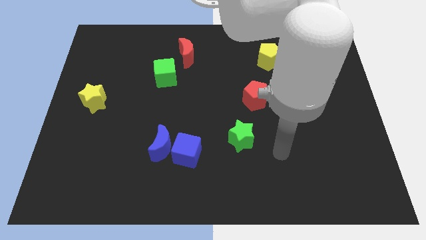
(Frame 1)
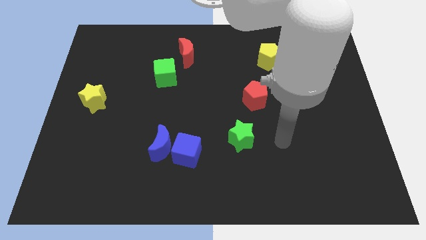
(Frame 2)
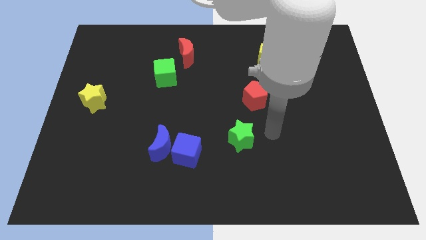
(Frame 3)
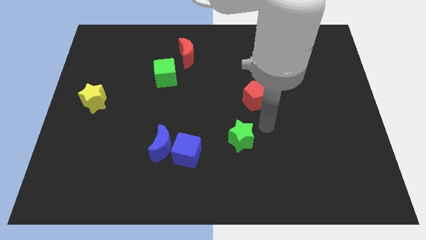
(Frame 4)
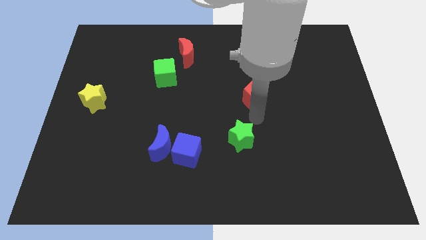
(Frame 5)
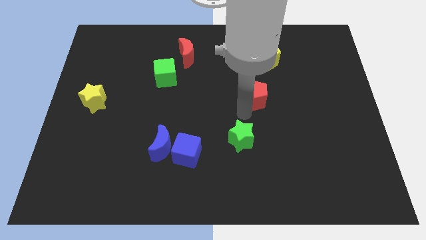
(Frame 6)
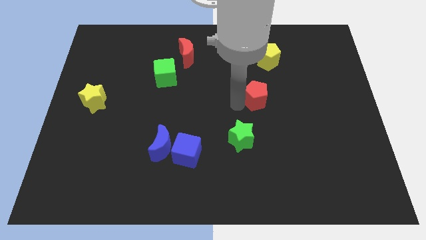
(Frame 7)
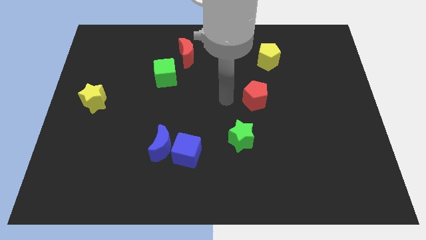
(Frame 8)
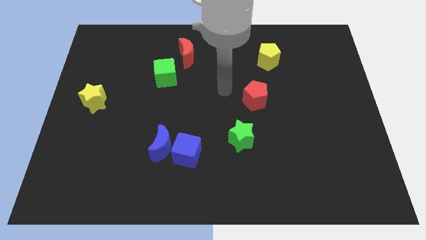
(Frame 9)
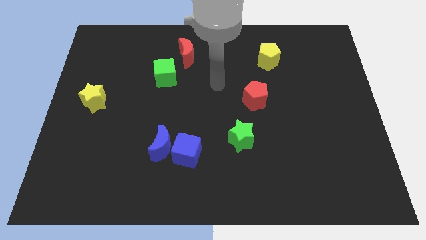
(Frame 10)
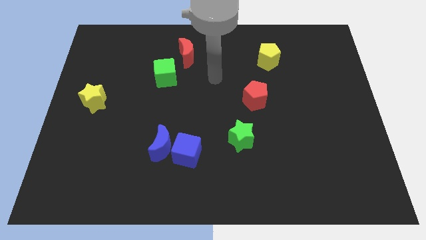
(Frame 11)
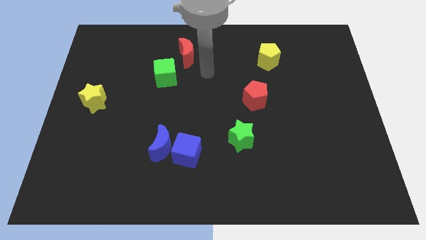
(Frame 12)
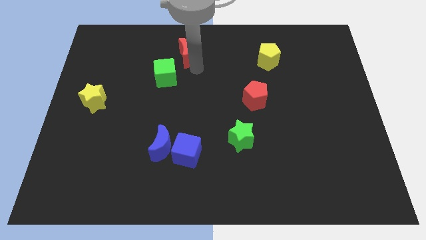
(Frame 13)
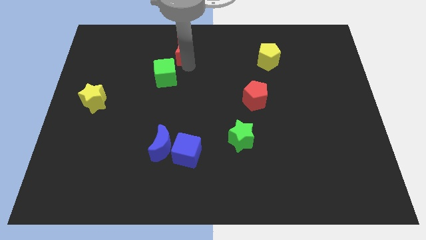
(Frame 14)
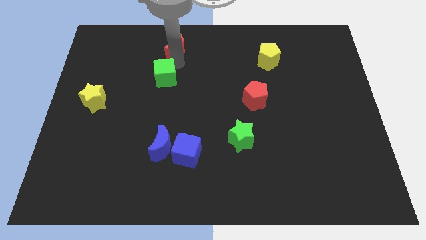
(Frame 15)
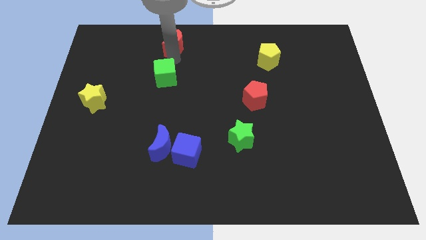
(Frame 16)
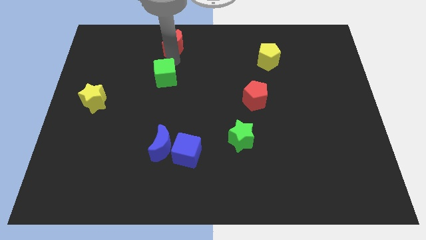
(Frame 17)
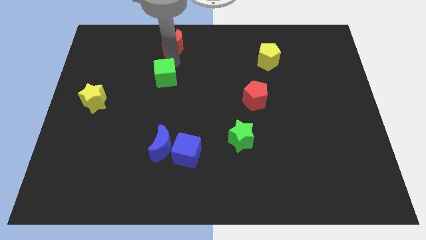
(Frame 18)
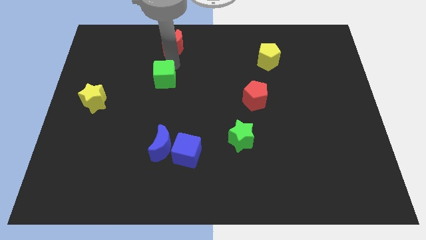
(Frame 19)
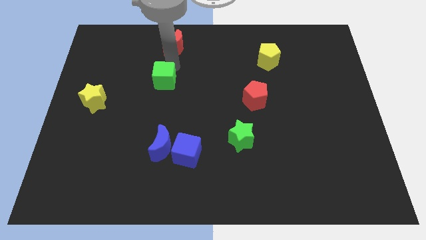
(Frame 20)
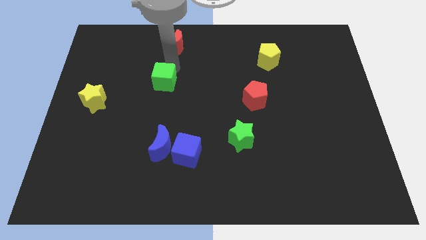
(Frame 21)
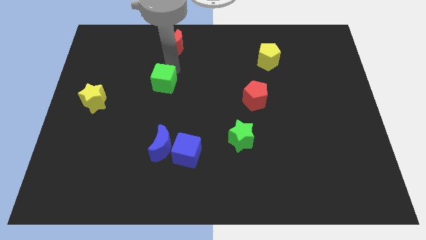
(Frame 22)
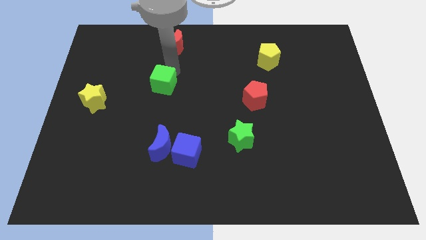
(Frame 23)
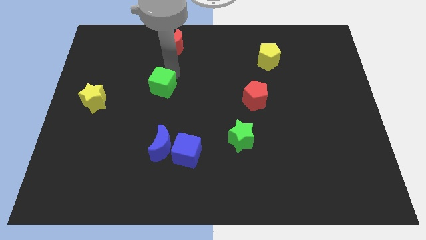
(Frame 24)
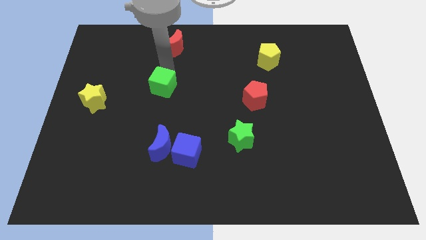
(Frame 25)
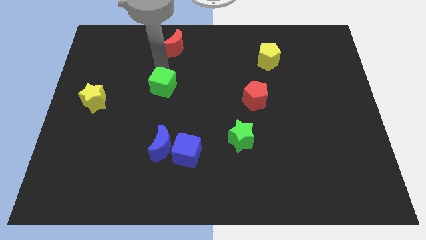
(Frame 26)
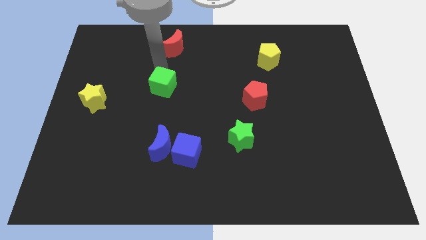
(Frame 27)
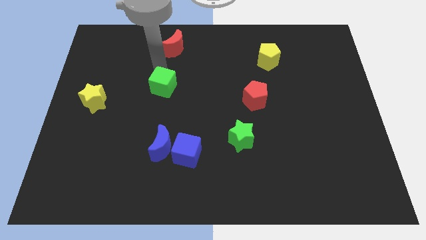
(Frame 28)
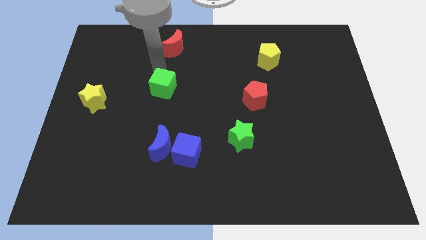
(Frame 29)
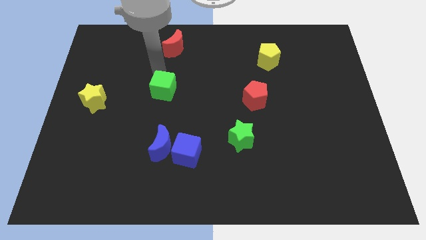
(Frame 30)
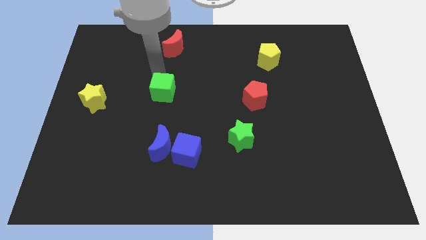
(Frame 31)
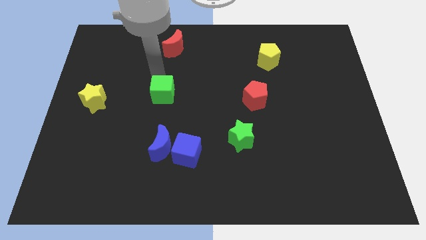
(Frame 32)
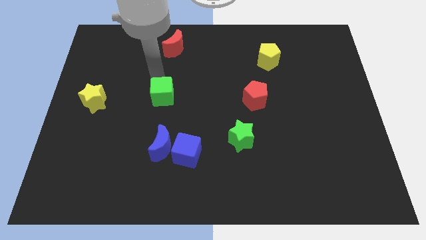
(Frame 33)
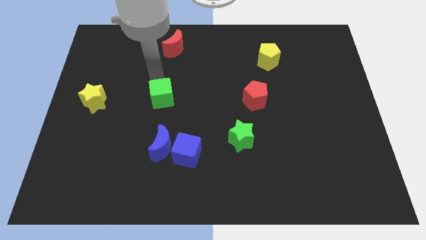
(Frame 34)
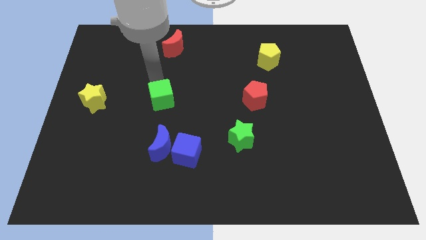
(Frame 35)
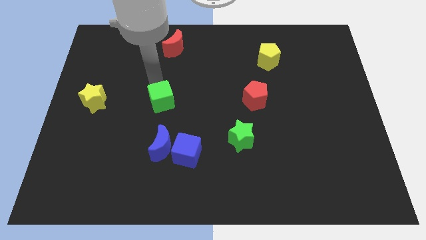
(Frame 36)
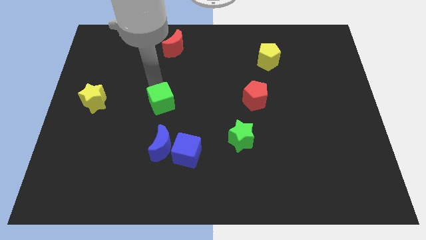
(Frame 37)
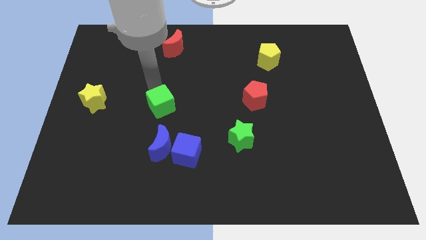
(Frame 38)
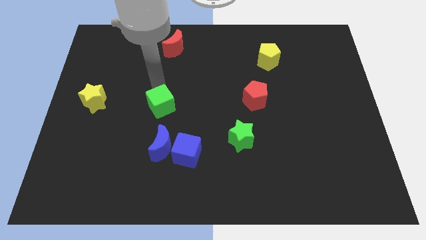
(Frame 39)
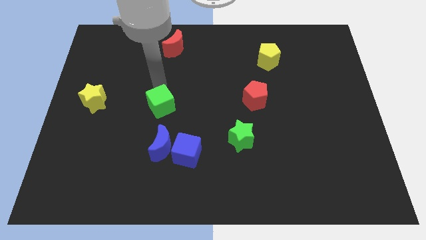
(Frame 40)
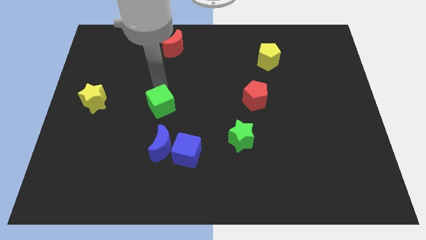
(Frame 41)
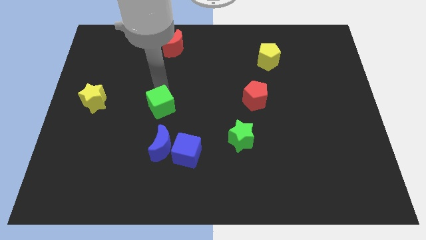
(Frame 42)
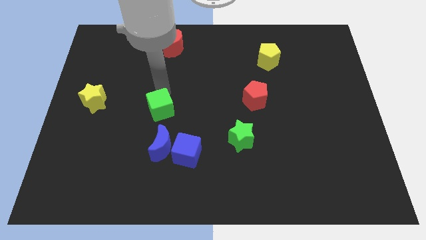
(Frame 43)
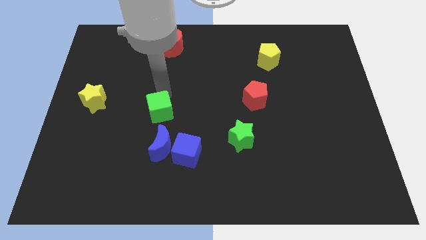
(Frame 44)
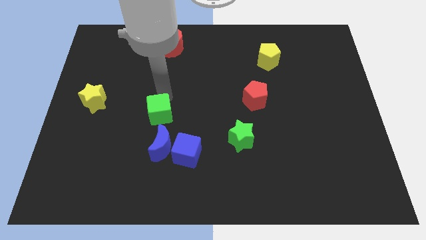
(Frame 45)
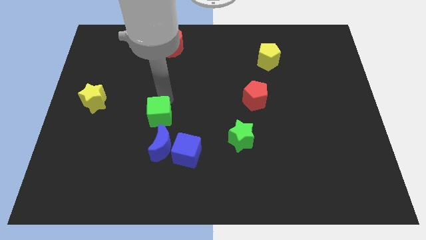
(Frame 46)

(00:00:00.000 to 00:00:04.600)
put the green cube diagonally up and to the left of the blue cube

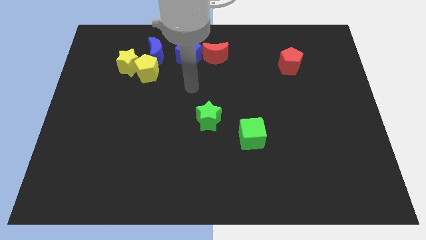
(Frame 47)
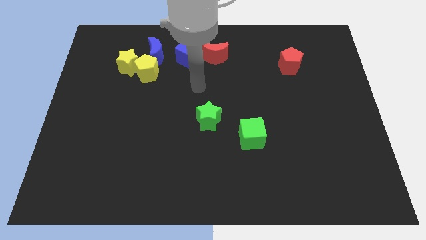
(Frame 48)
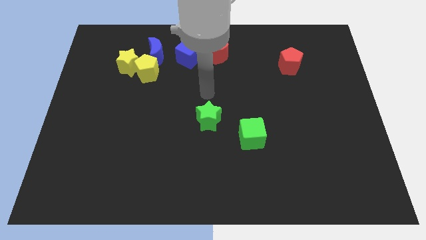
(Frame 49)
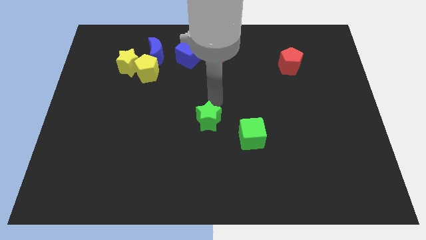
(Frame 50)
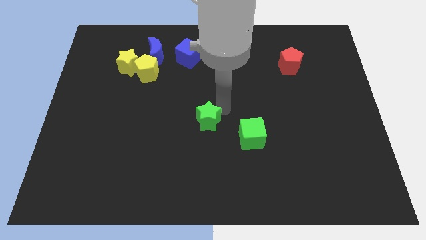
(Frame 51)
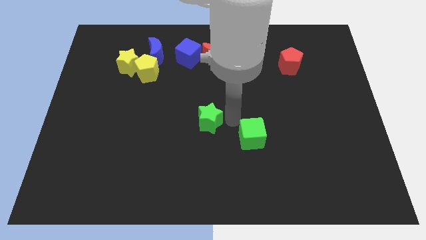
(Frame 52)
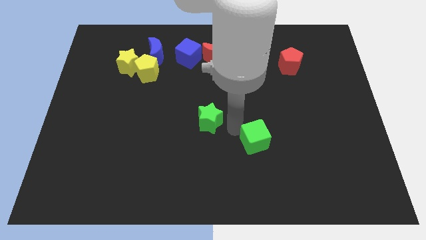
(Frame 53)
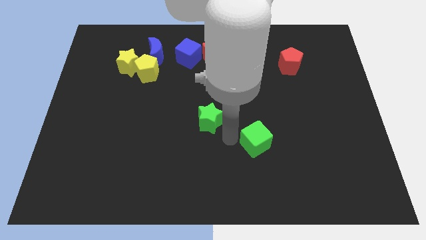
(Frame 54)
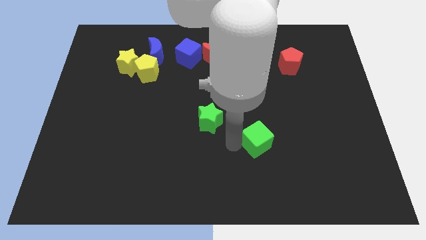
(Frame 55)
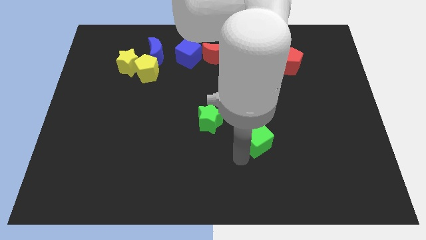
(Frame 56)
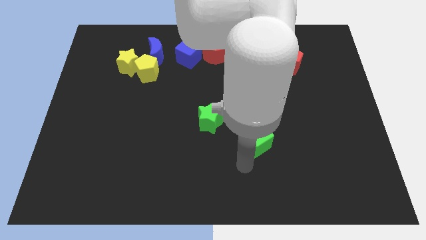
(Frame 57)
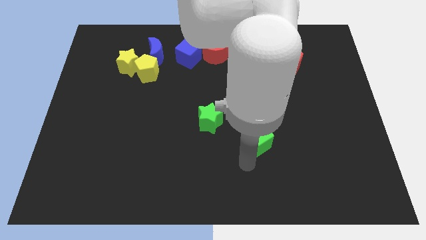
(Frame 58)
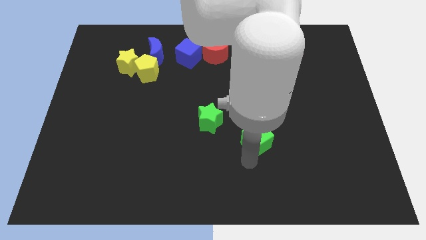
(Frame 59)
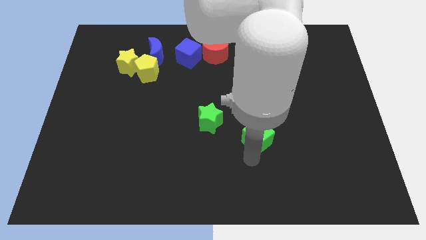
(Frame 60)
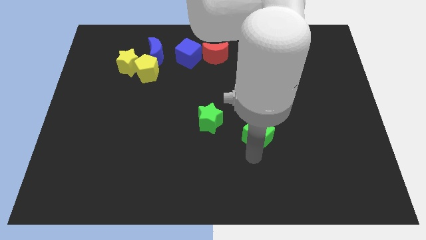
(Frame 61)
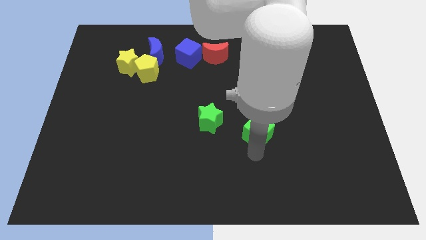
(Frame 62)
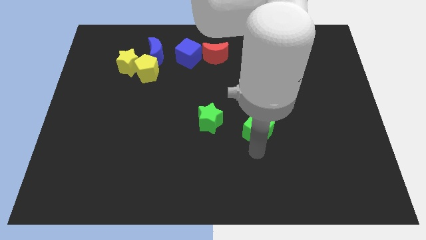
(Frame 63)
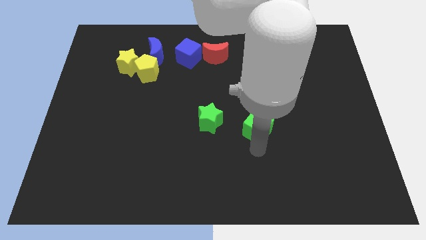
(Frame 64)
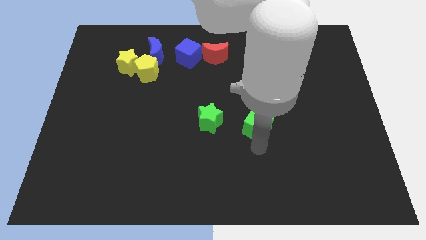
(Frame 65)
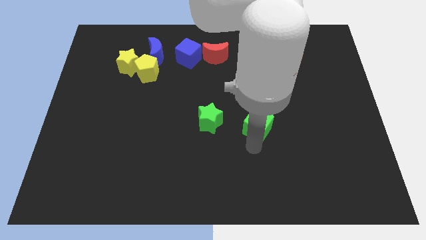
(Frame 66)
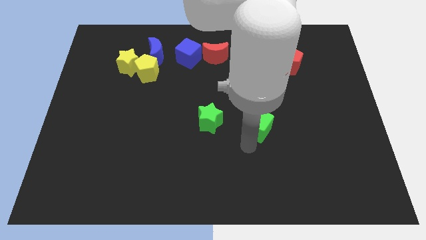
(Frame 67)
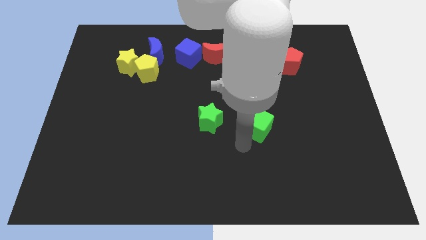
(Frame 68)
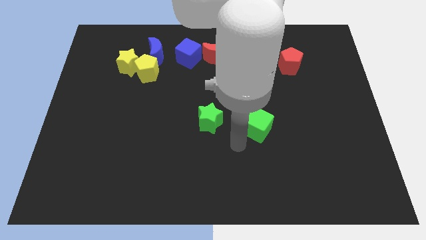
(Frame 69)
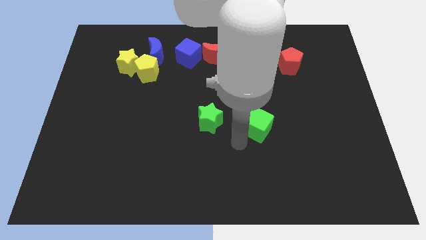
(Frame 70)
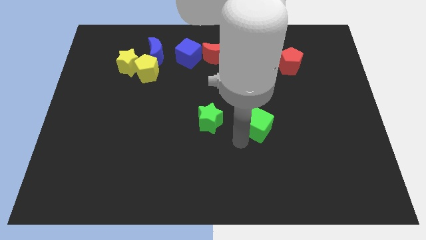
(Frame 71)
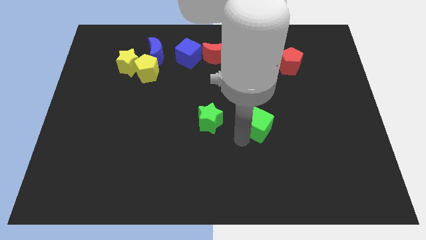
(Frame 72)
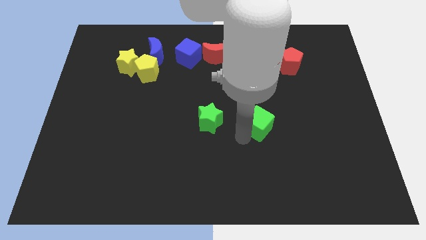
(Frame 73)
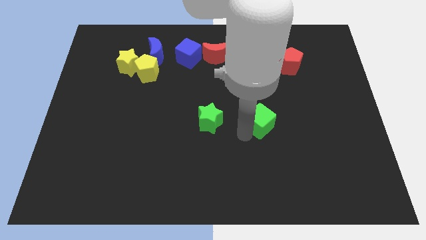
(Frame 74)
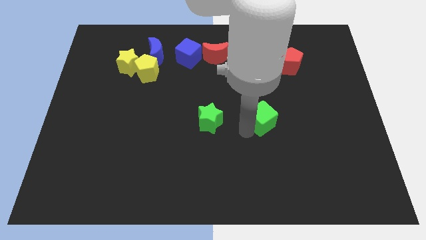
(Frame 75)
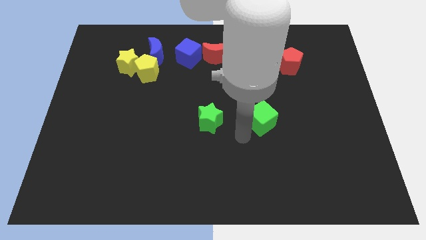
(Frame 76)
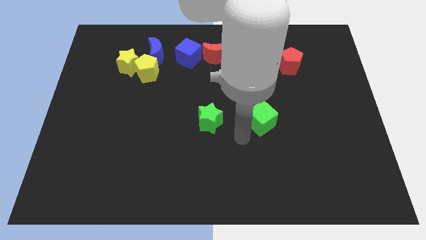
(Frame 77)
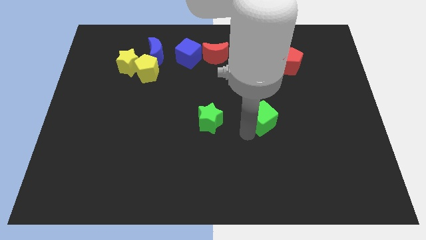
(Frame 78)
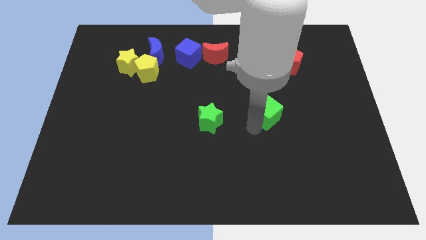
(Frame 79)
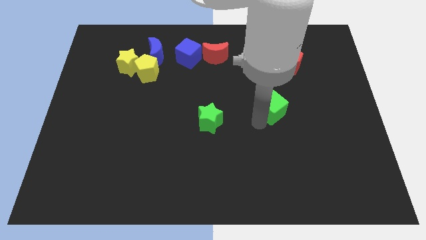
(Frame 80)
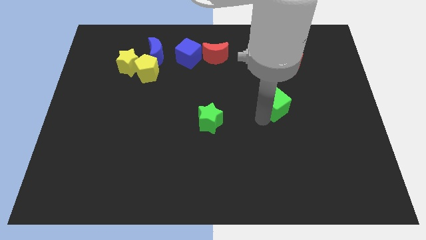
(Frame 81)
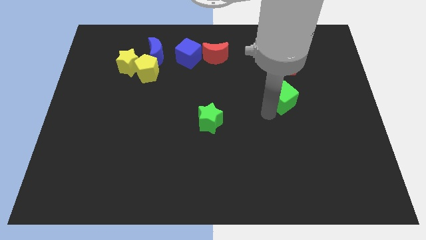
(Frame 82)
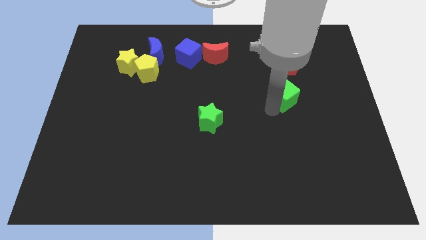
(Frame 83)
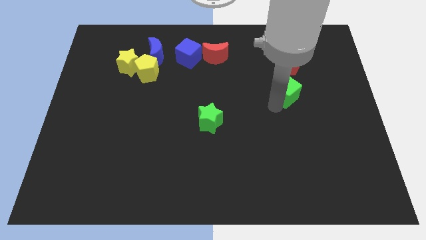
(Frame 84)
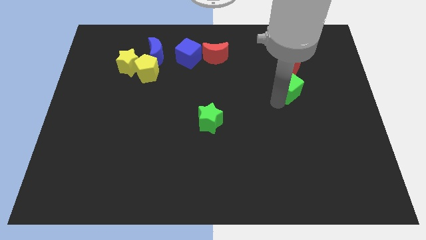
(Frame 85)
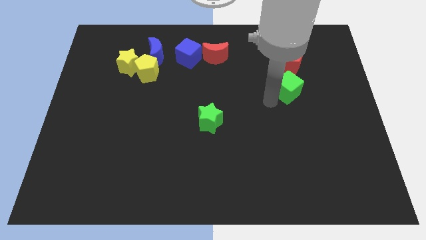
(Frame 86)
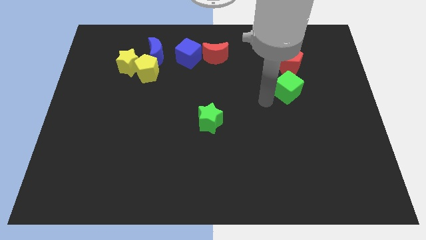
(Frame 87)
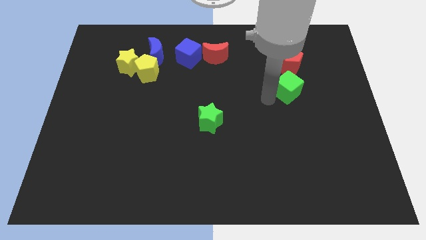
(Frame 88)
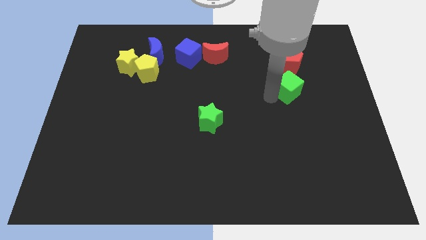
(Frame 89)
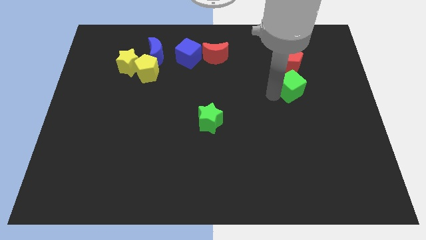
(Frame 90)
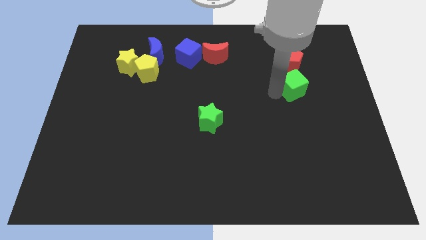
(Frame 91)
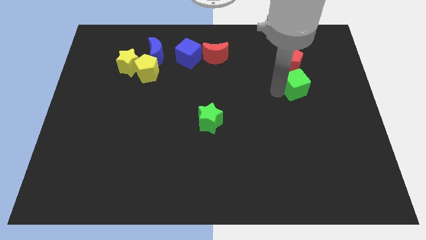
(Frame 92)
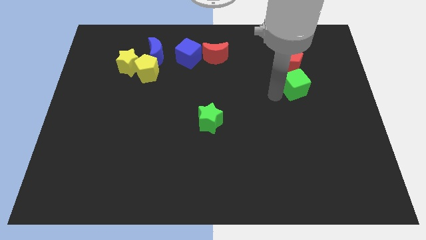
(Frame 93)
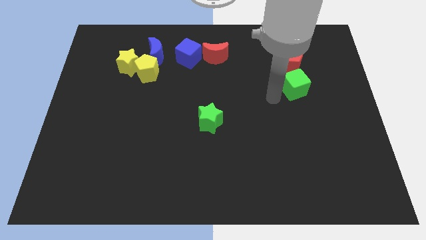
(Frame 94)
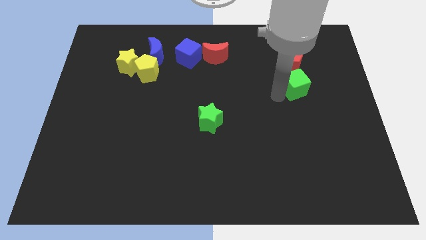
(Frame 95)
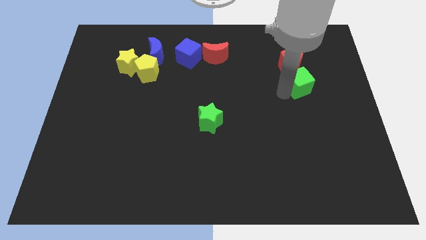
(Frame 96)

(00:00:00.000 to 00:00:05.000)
push the green cube to the bottom right of the red pentagon
